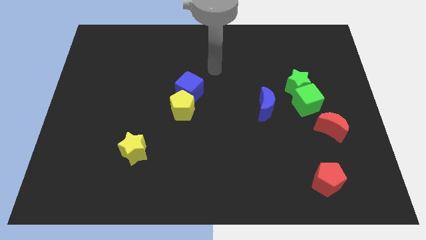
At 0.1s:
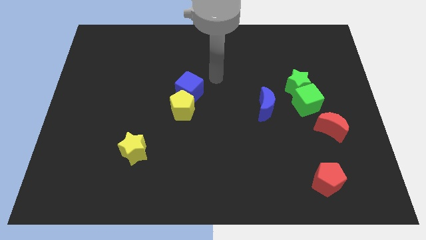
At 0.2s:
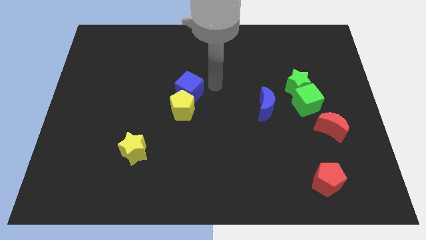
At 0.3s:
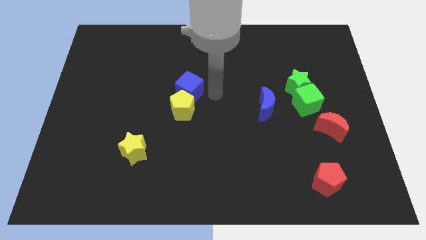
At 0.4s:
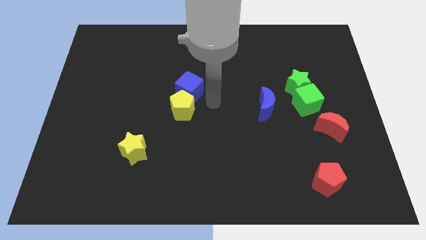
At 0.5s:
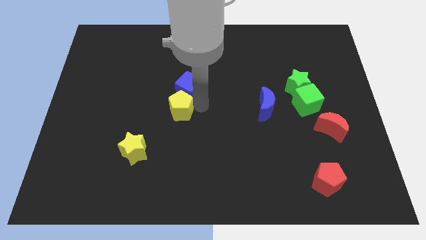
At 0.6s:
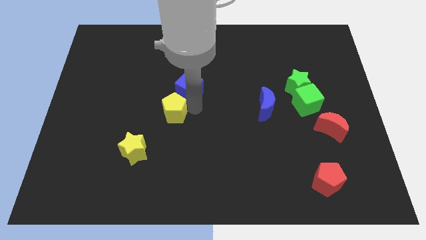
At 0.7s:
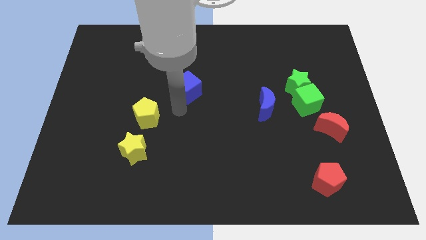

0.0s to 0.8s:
separate the blue cube from the yellow pentagon

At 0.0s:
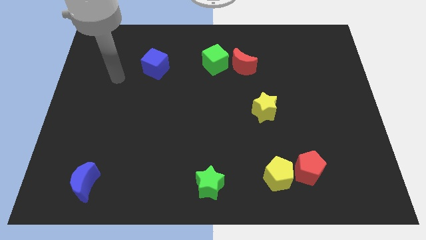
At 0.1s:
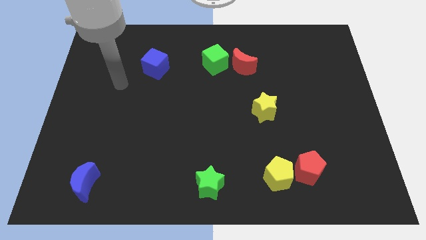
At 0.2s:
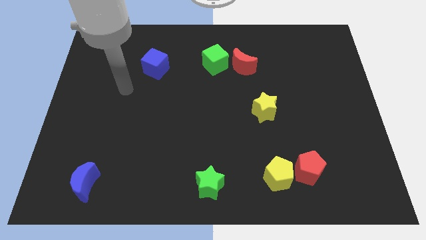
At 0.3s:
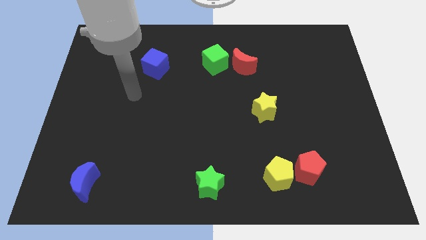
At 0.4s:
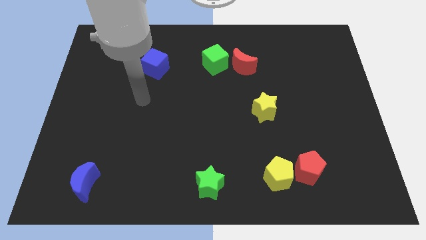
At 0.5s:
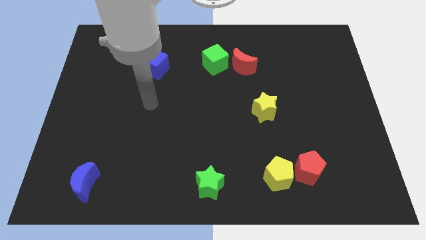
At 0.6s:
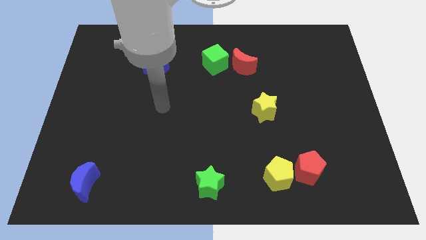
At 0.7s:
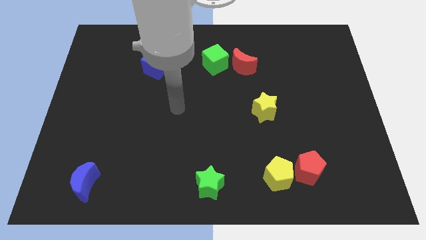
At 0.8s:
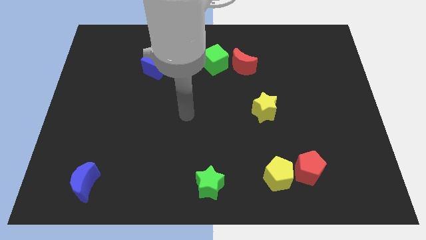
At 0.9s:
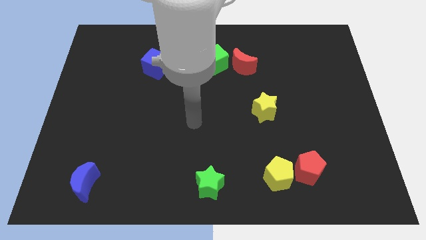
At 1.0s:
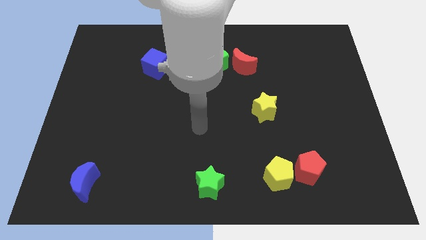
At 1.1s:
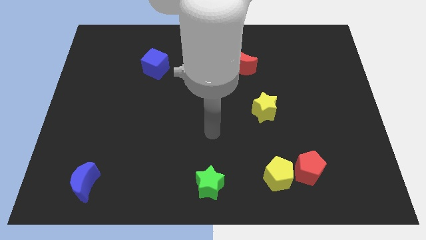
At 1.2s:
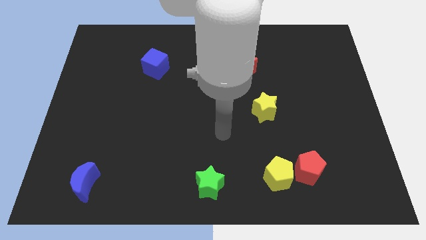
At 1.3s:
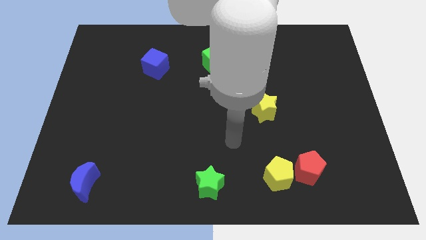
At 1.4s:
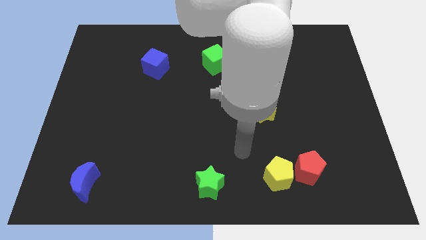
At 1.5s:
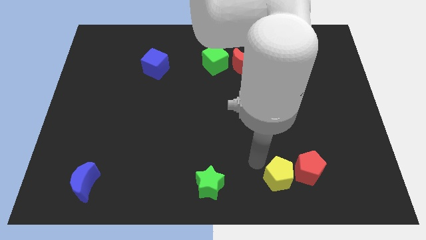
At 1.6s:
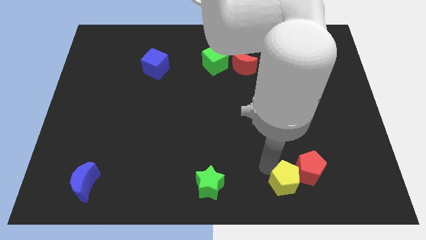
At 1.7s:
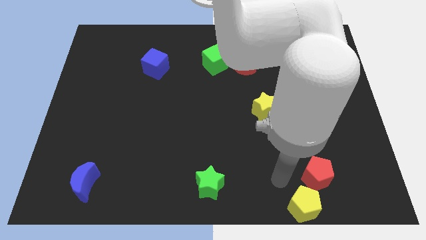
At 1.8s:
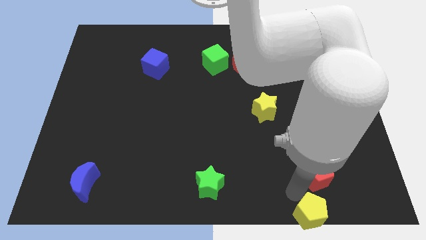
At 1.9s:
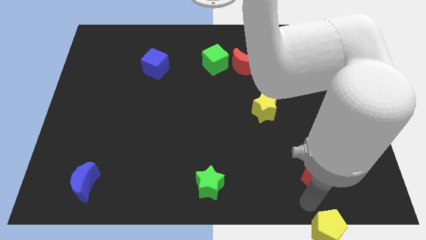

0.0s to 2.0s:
pull the red pentagon apart from the yellow pentagon

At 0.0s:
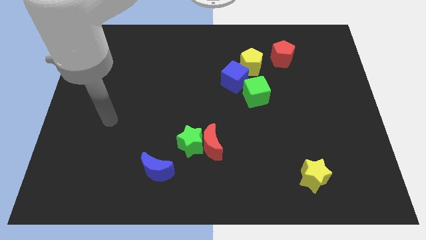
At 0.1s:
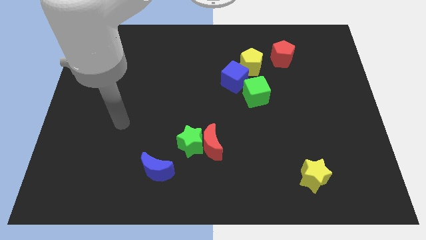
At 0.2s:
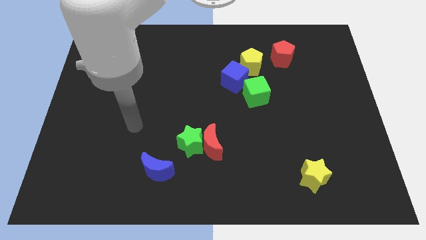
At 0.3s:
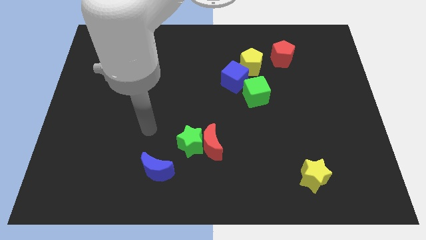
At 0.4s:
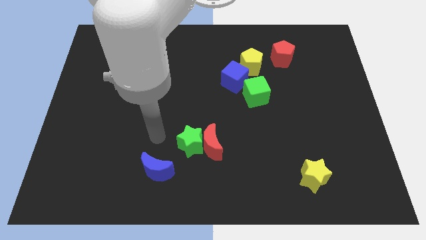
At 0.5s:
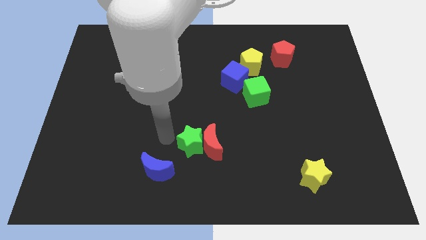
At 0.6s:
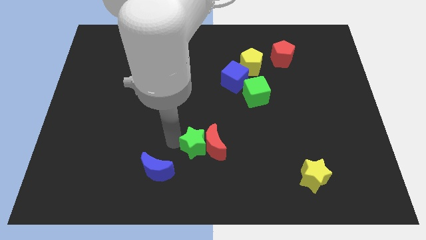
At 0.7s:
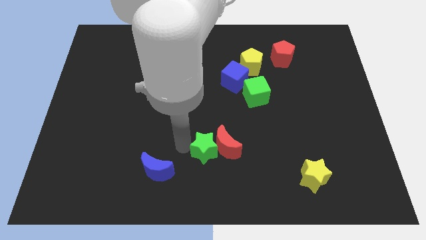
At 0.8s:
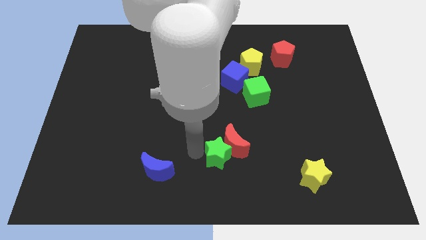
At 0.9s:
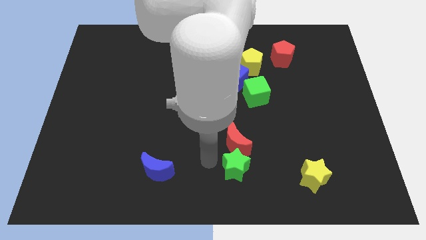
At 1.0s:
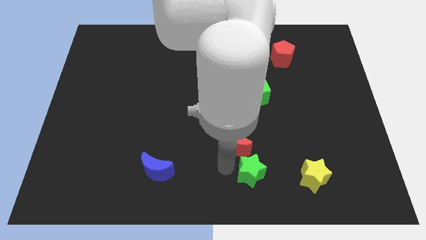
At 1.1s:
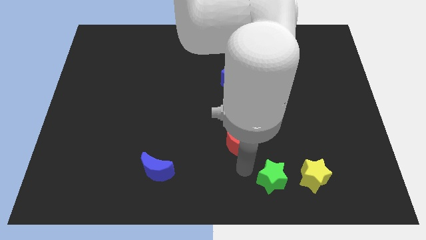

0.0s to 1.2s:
separate the red moon from the green star

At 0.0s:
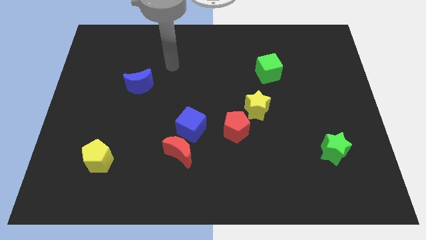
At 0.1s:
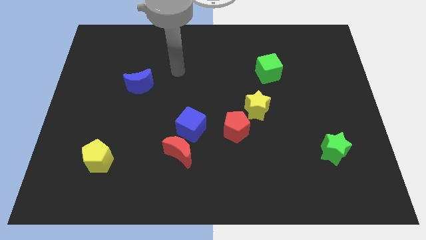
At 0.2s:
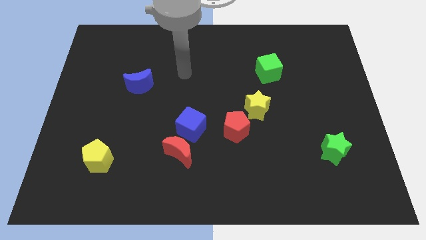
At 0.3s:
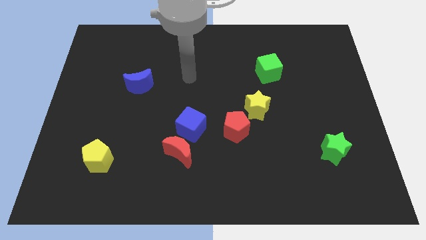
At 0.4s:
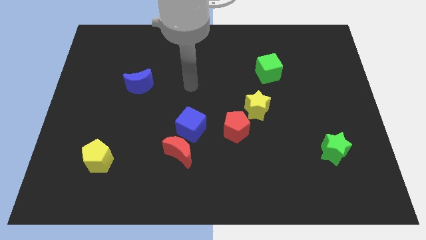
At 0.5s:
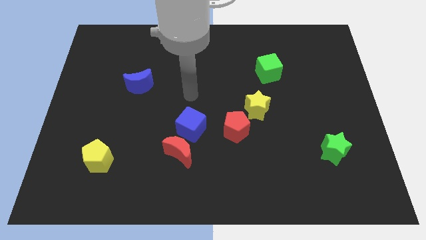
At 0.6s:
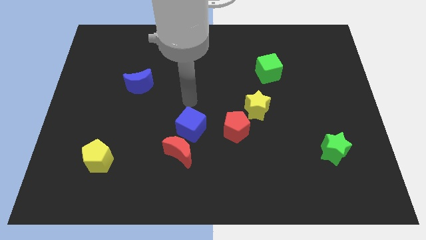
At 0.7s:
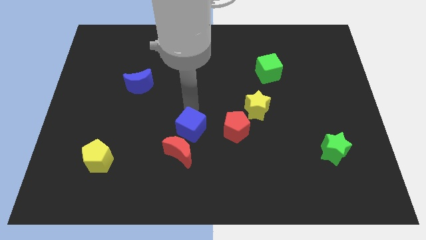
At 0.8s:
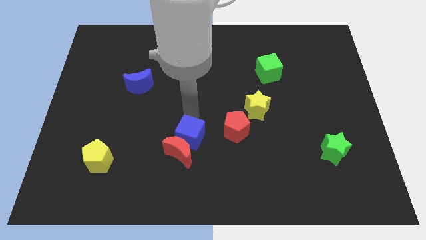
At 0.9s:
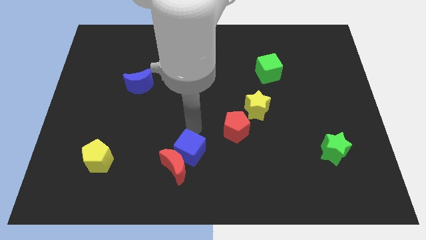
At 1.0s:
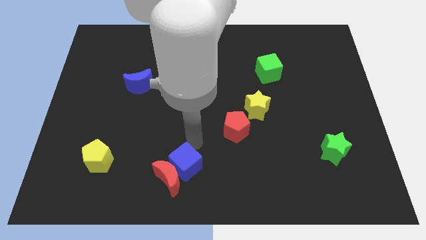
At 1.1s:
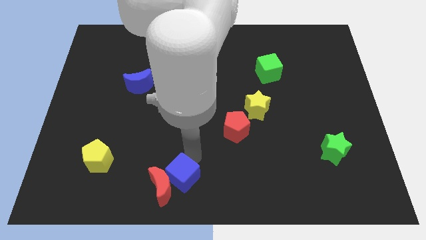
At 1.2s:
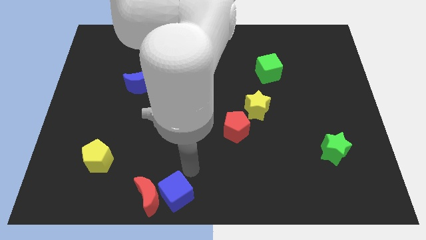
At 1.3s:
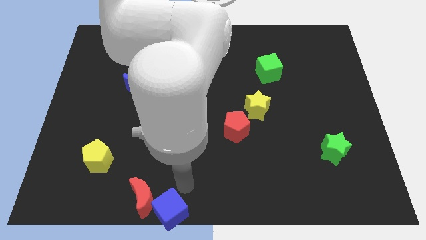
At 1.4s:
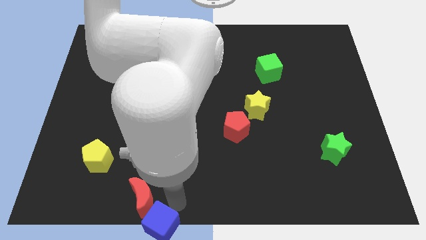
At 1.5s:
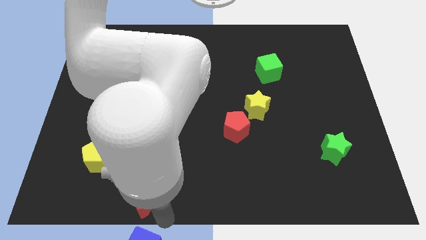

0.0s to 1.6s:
separate the red moon from the blue cube

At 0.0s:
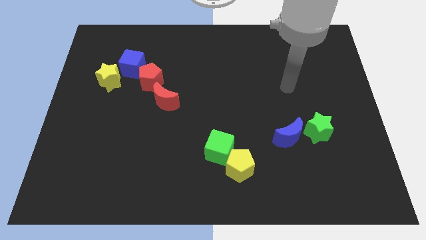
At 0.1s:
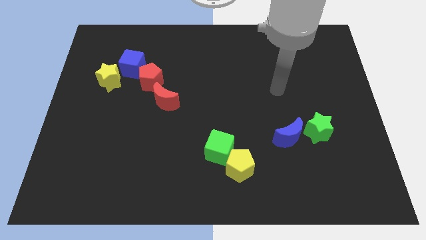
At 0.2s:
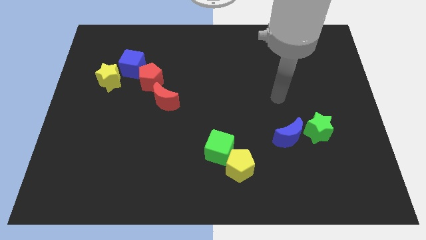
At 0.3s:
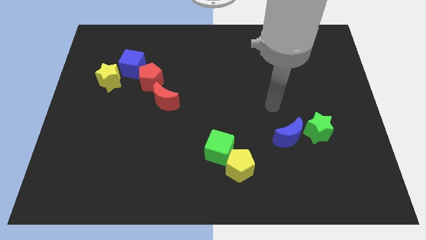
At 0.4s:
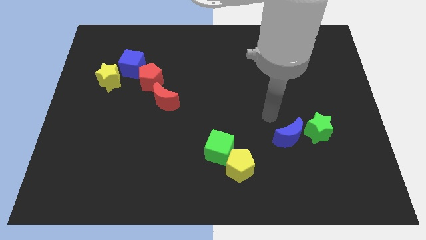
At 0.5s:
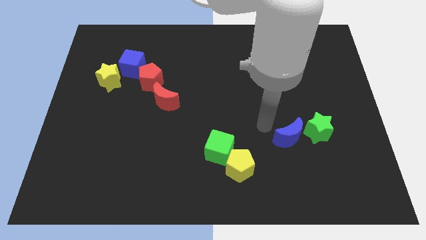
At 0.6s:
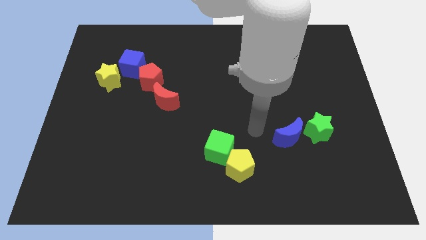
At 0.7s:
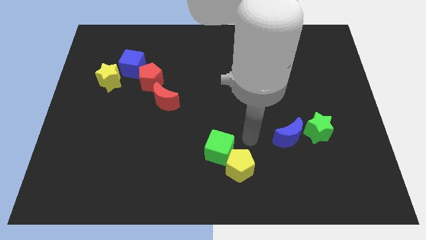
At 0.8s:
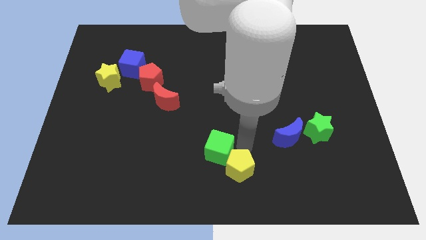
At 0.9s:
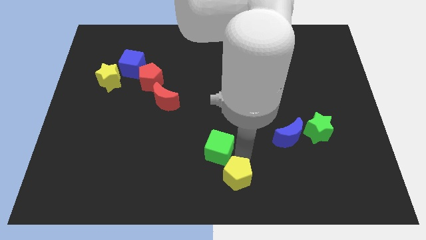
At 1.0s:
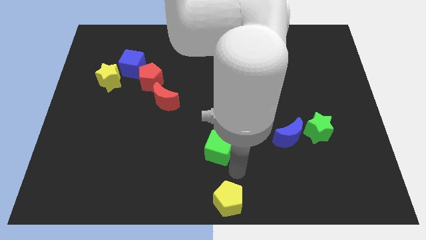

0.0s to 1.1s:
pull the green cube apart from the yellow pentagon

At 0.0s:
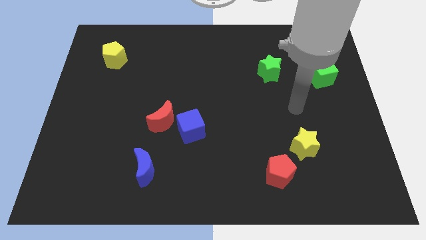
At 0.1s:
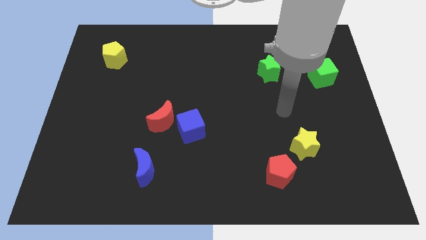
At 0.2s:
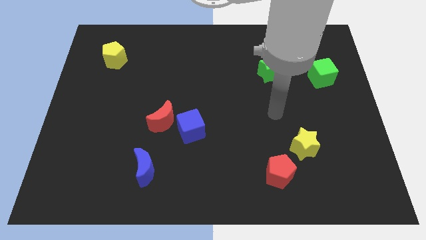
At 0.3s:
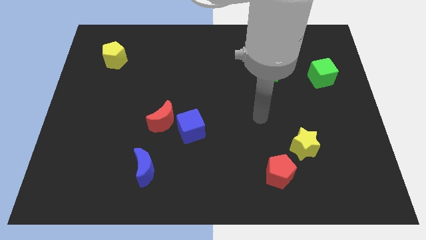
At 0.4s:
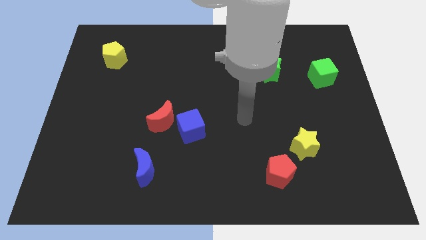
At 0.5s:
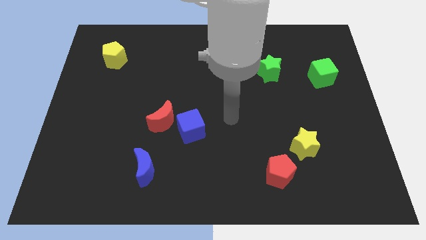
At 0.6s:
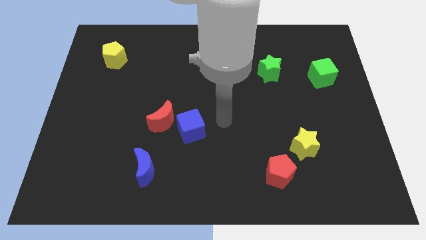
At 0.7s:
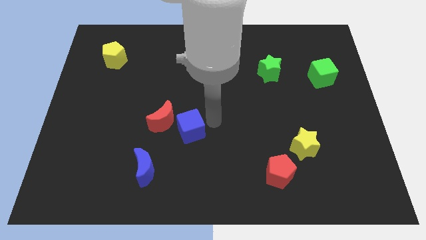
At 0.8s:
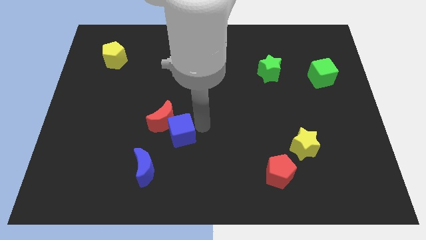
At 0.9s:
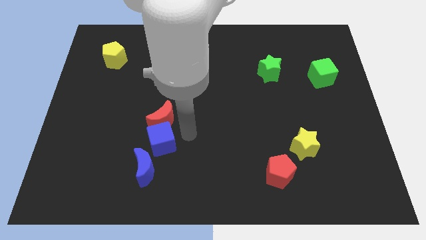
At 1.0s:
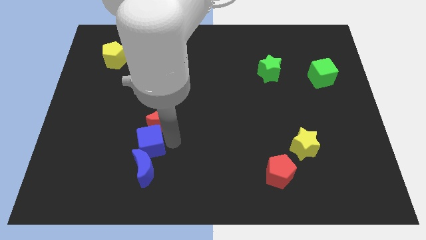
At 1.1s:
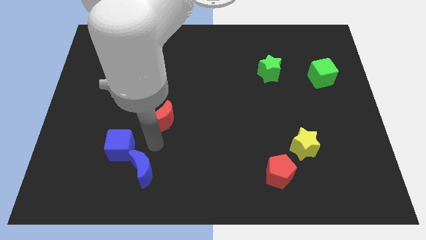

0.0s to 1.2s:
move the red moon away from the blue cube

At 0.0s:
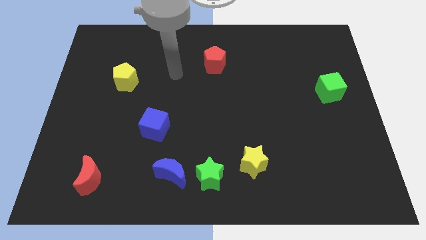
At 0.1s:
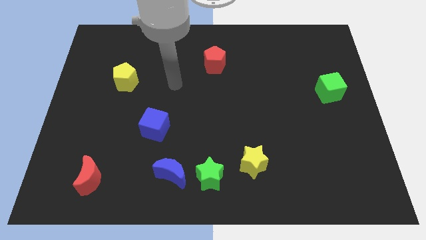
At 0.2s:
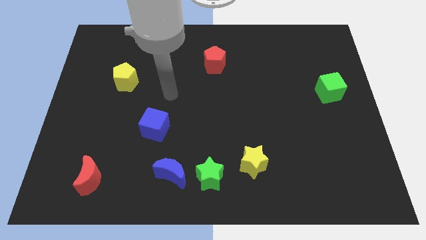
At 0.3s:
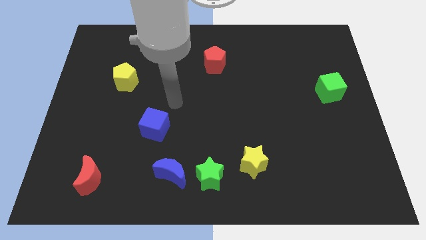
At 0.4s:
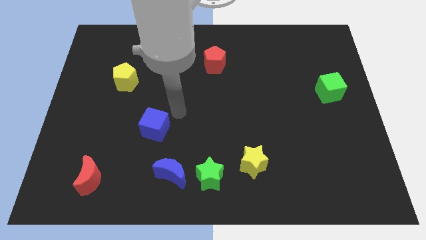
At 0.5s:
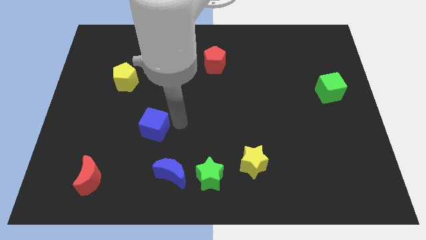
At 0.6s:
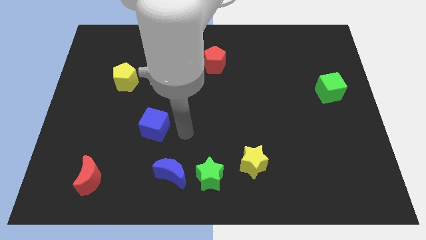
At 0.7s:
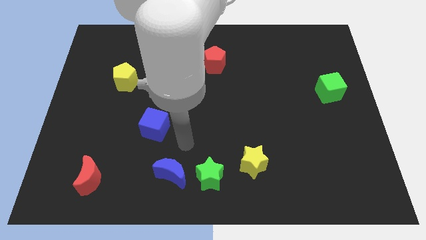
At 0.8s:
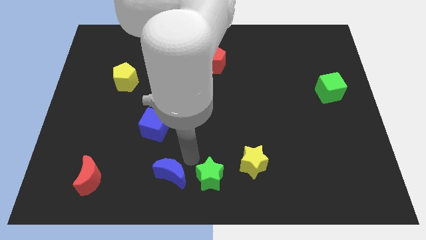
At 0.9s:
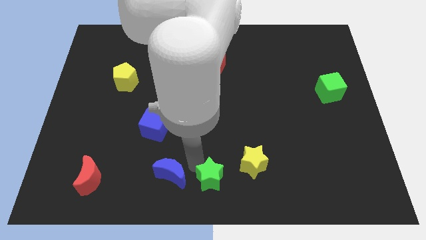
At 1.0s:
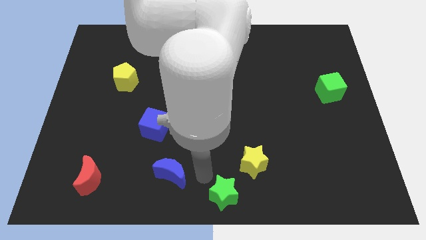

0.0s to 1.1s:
move the blue moon away from the green star

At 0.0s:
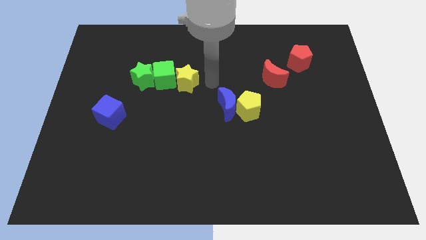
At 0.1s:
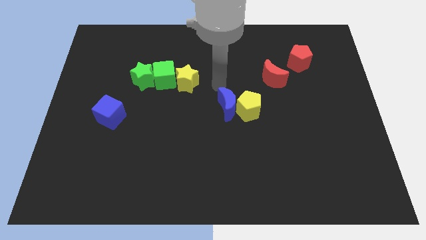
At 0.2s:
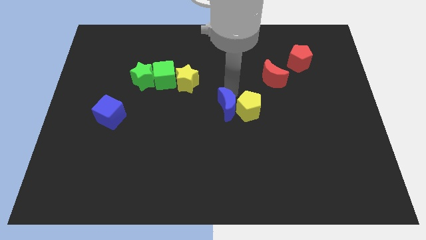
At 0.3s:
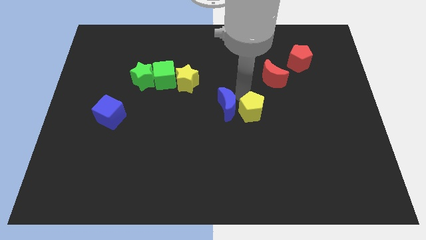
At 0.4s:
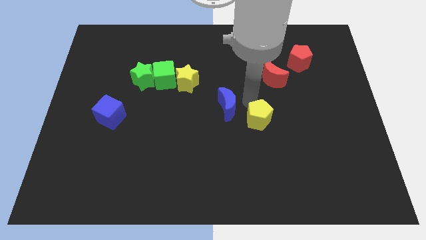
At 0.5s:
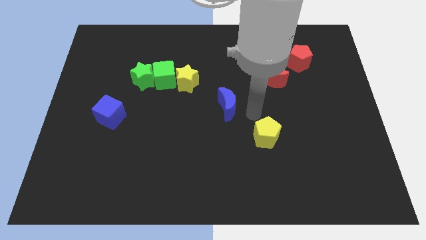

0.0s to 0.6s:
pull the blue moon apart from the yellow pentagon
